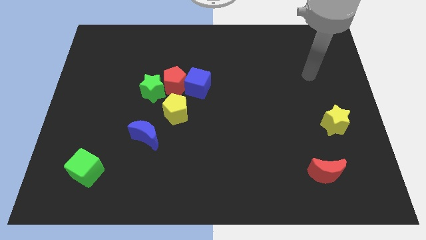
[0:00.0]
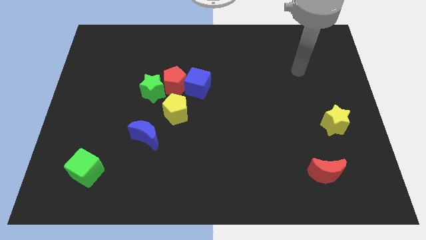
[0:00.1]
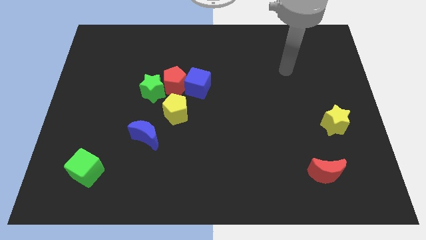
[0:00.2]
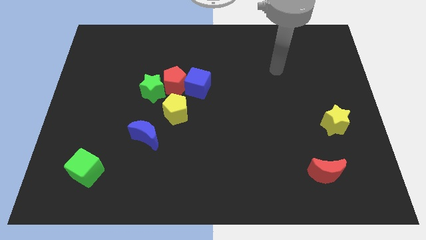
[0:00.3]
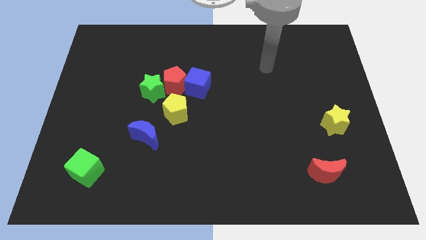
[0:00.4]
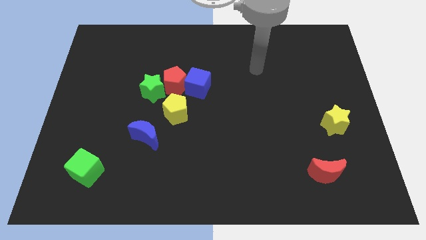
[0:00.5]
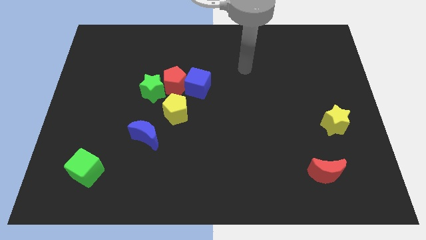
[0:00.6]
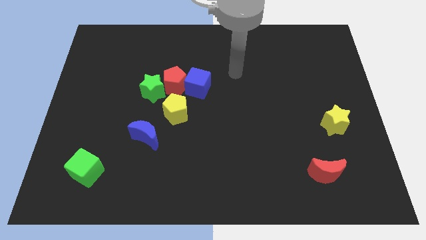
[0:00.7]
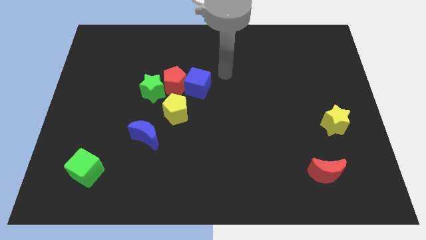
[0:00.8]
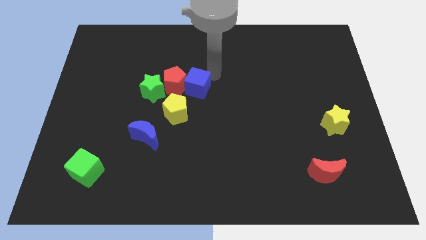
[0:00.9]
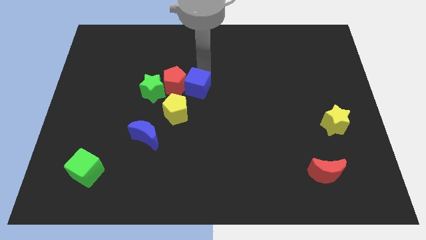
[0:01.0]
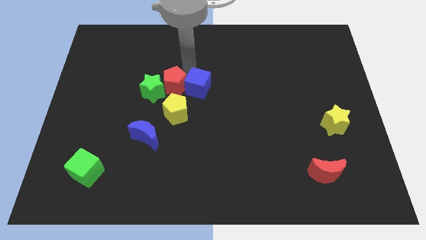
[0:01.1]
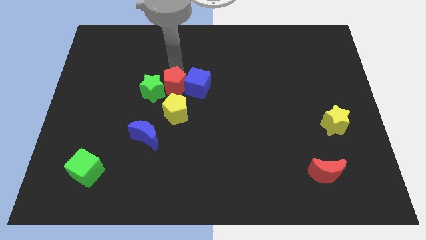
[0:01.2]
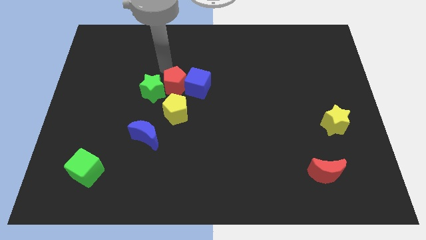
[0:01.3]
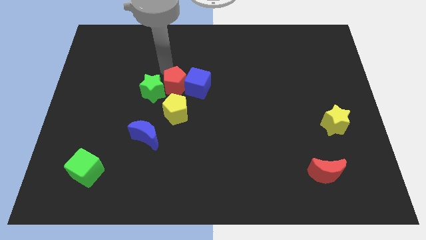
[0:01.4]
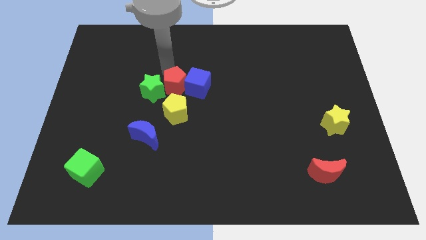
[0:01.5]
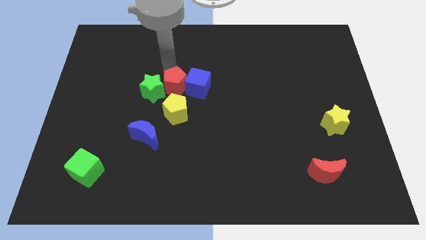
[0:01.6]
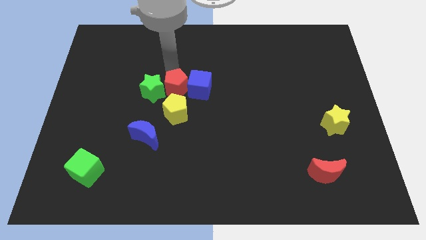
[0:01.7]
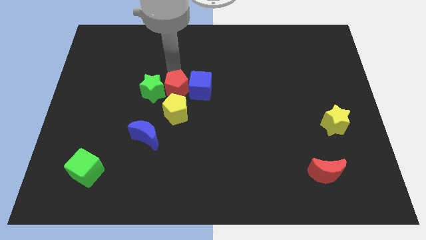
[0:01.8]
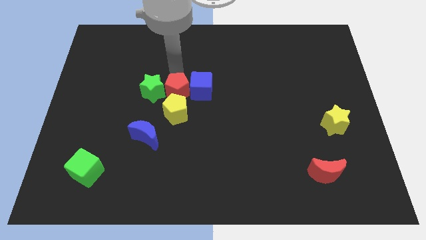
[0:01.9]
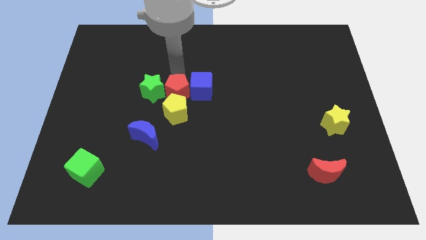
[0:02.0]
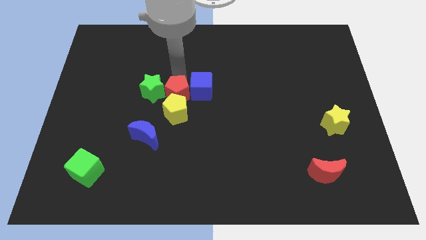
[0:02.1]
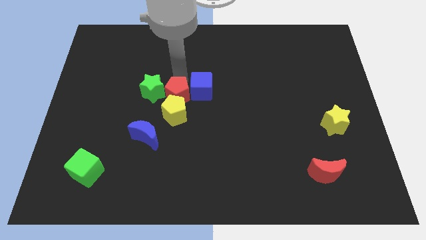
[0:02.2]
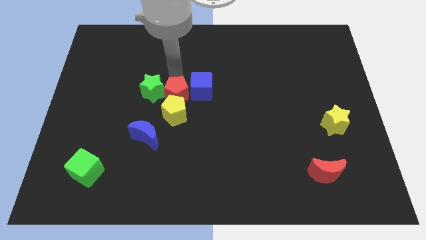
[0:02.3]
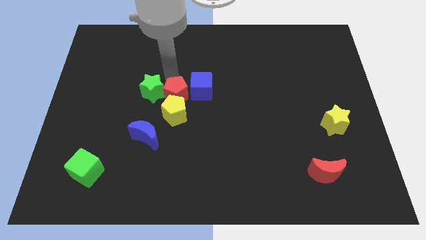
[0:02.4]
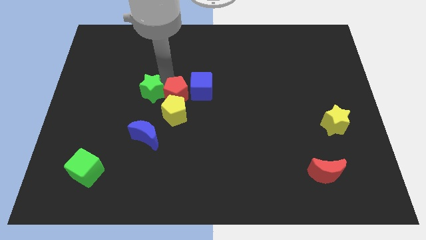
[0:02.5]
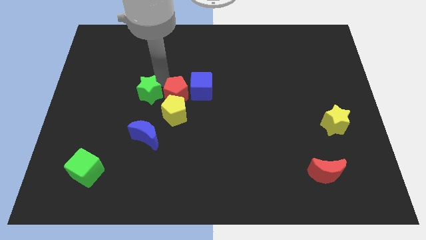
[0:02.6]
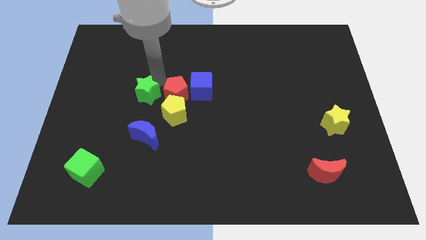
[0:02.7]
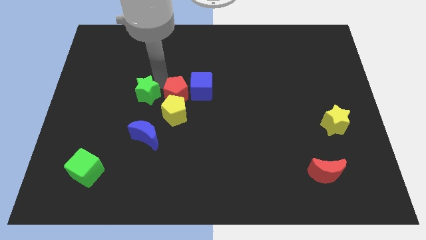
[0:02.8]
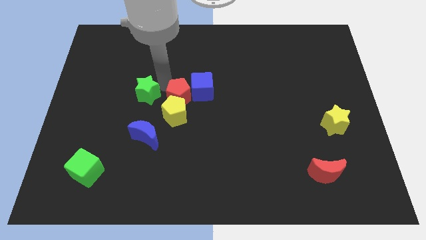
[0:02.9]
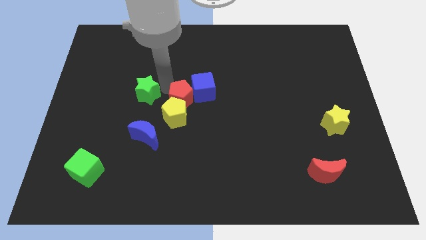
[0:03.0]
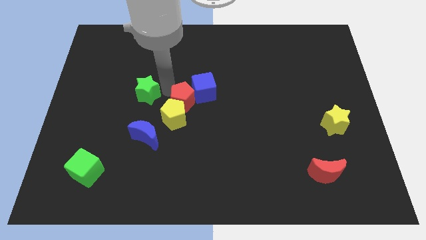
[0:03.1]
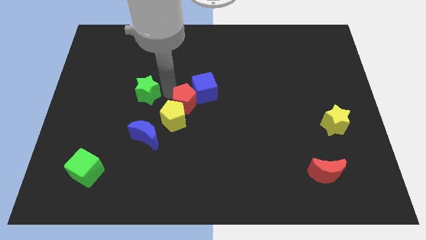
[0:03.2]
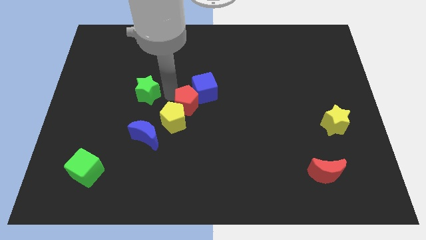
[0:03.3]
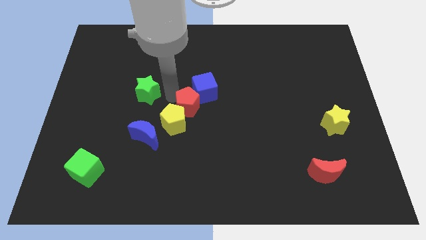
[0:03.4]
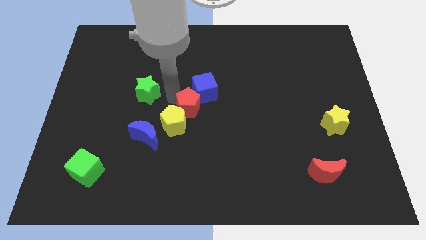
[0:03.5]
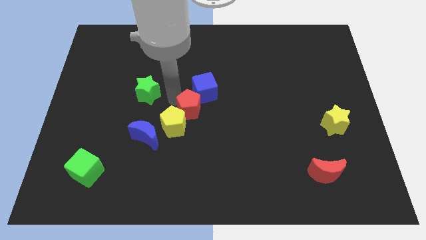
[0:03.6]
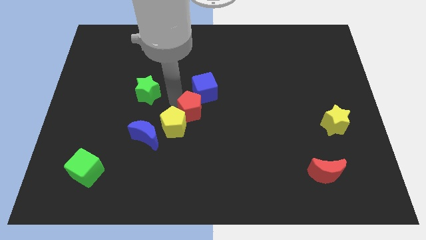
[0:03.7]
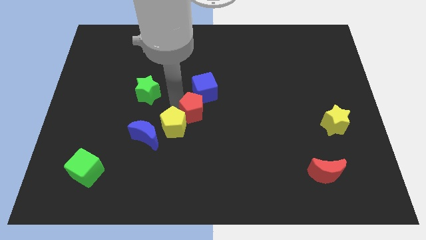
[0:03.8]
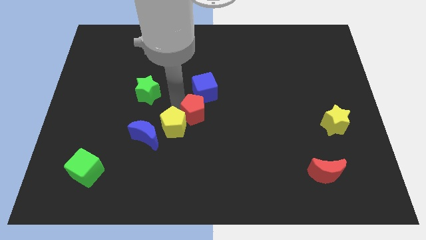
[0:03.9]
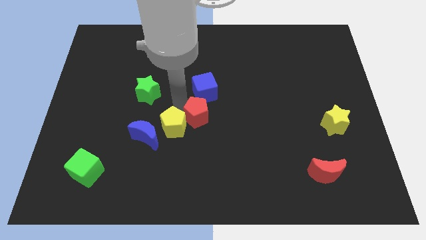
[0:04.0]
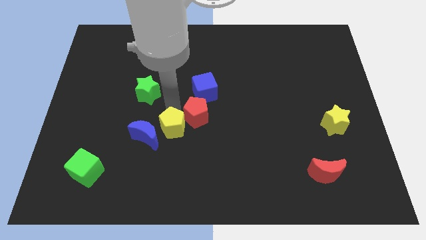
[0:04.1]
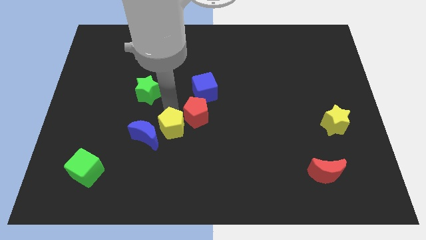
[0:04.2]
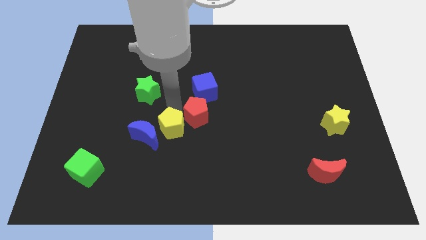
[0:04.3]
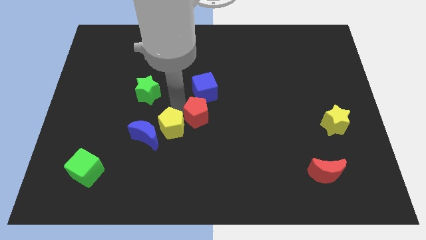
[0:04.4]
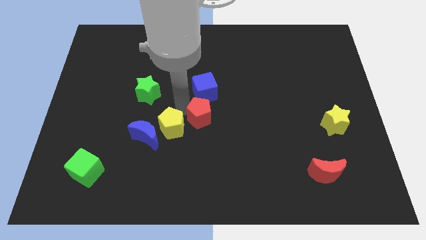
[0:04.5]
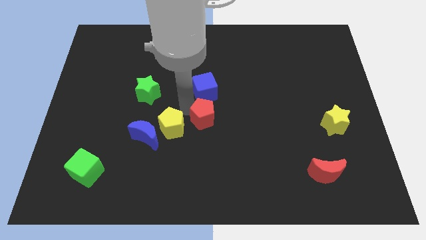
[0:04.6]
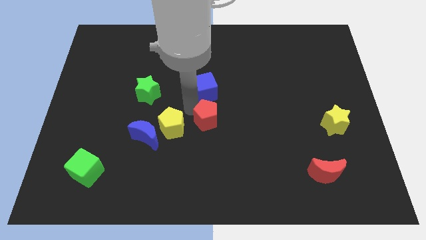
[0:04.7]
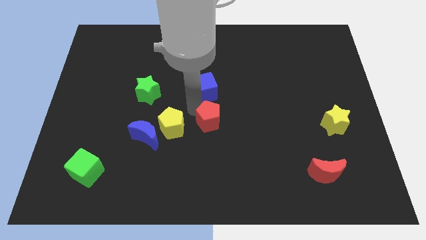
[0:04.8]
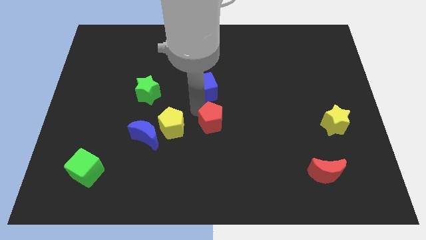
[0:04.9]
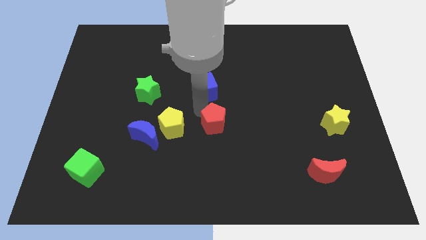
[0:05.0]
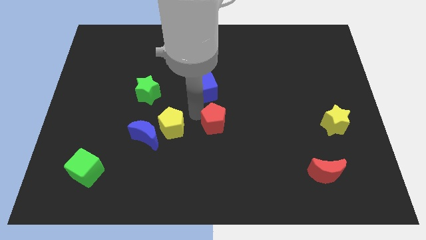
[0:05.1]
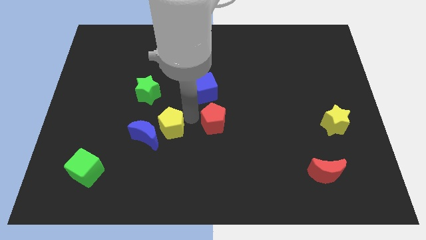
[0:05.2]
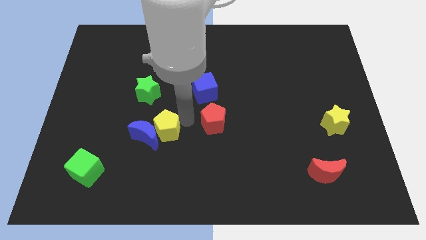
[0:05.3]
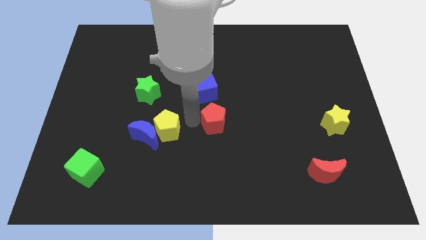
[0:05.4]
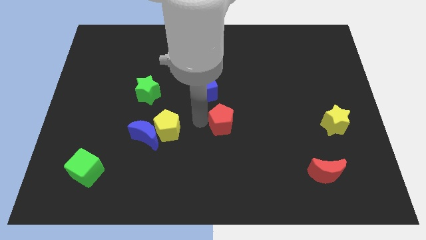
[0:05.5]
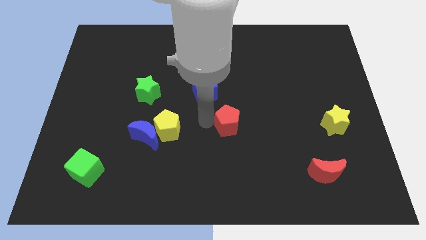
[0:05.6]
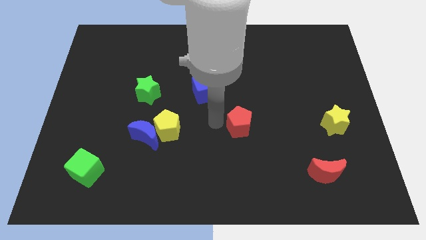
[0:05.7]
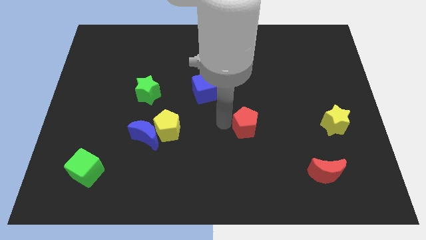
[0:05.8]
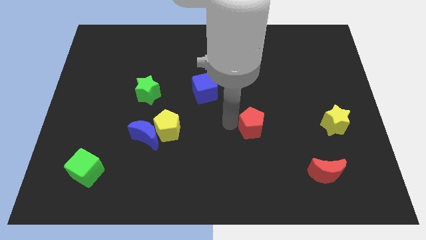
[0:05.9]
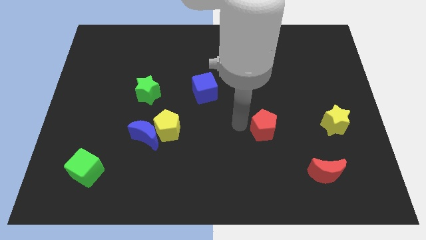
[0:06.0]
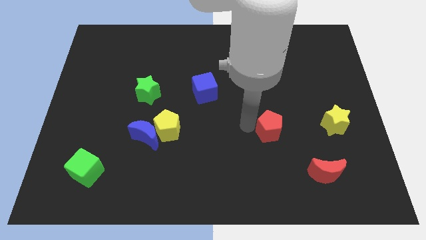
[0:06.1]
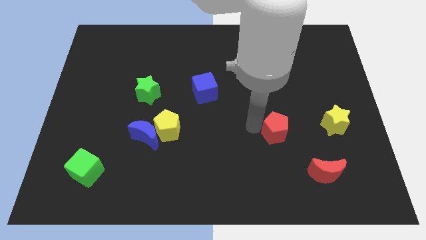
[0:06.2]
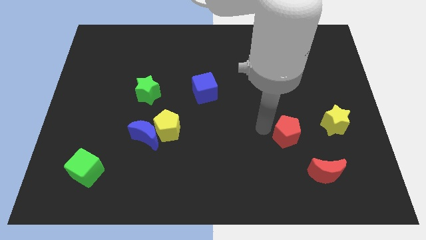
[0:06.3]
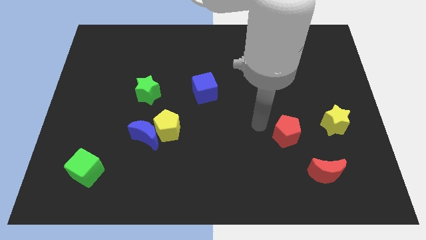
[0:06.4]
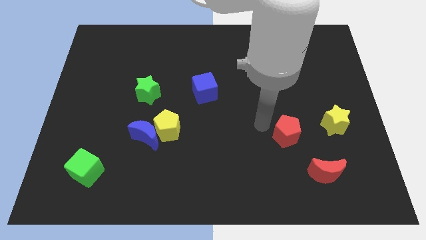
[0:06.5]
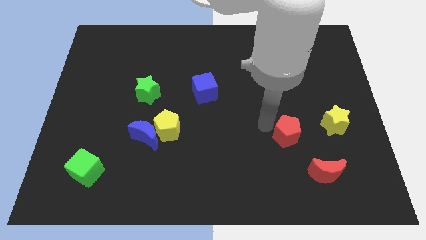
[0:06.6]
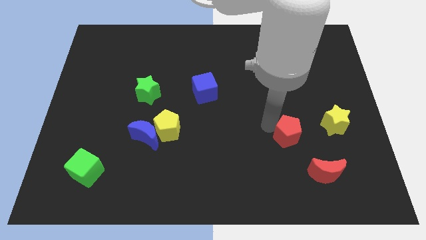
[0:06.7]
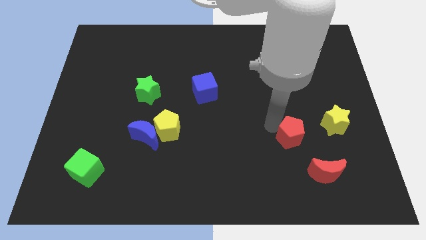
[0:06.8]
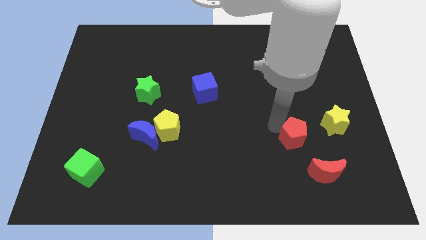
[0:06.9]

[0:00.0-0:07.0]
slide the red pentagon diagonally down and to the left of the yellow star

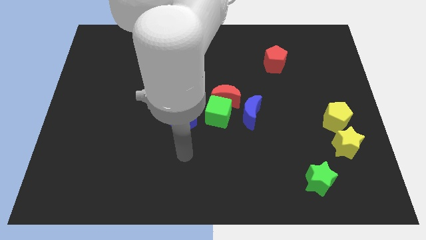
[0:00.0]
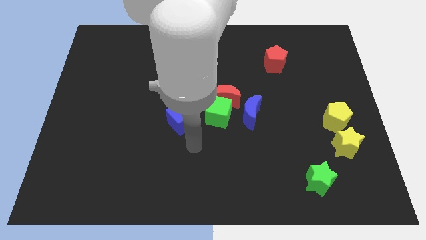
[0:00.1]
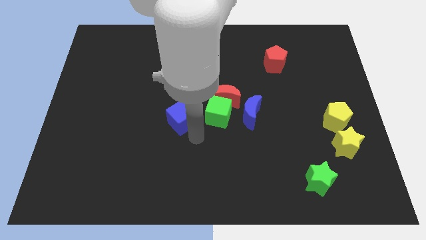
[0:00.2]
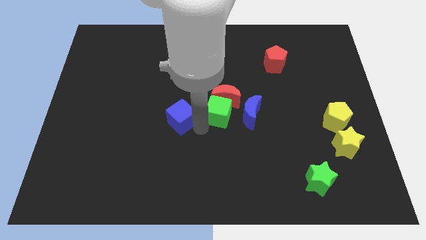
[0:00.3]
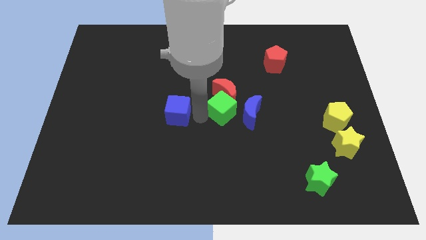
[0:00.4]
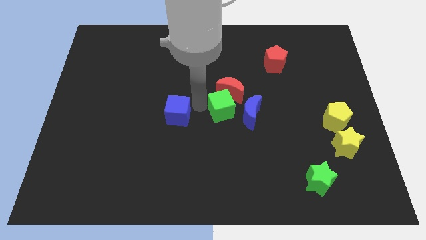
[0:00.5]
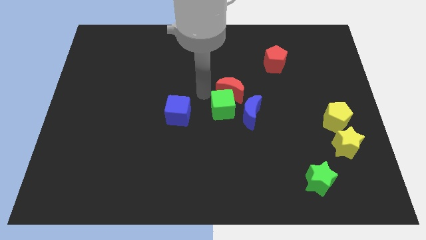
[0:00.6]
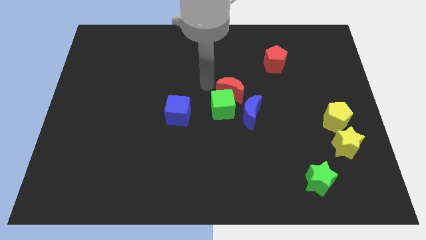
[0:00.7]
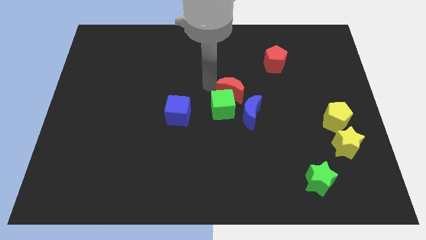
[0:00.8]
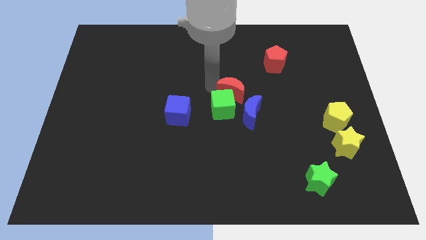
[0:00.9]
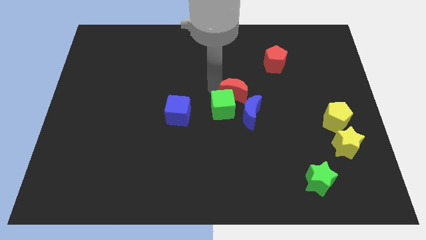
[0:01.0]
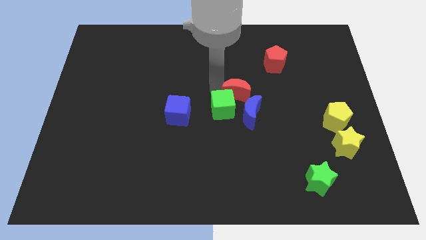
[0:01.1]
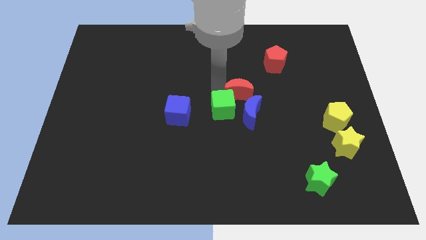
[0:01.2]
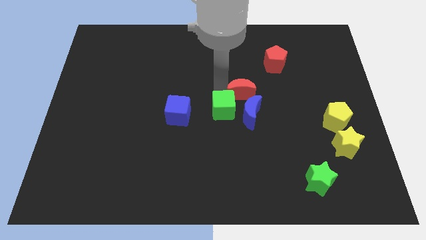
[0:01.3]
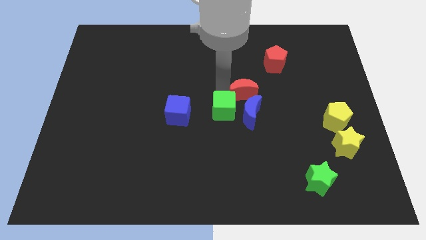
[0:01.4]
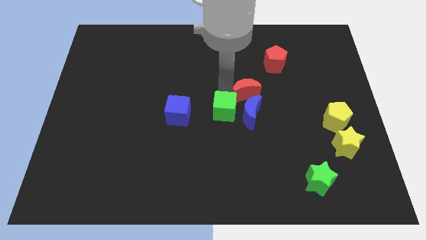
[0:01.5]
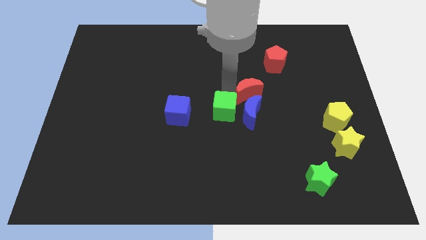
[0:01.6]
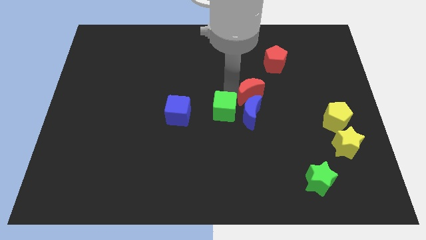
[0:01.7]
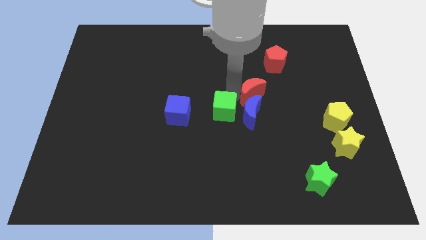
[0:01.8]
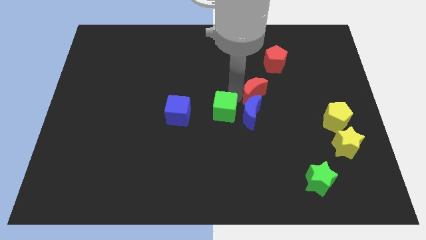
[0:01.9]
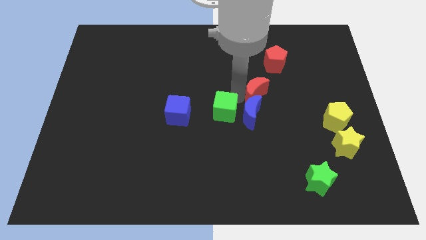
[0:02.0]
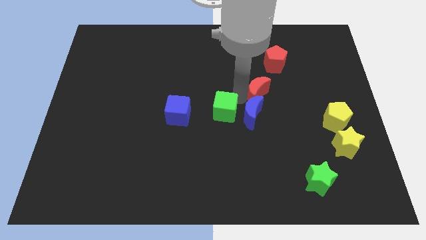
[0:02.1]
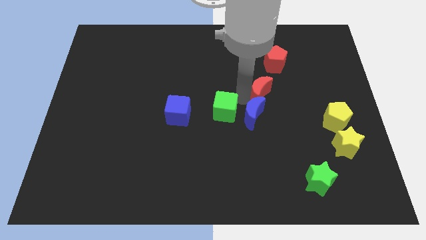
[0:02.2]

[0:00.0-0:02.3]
move the red moon to the bottom side of the red pentagon
